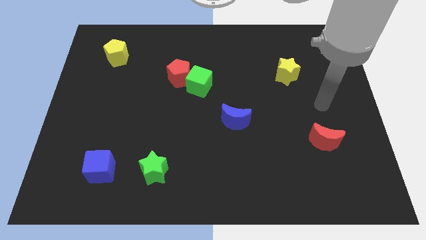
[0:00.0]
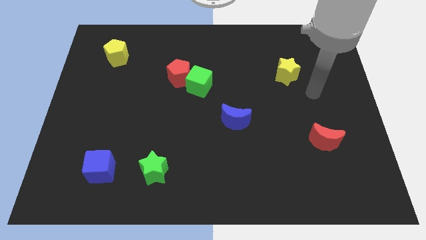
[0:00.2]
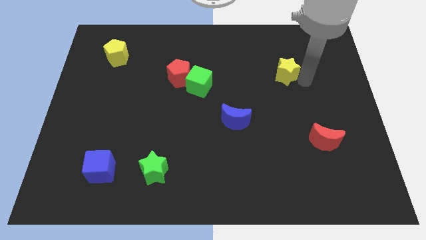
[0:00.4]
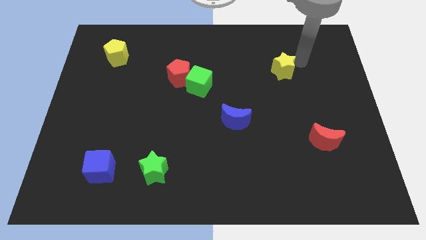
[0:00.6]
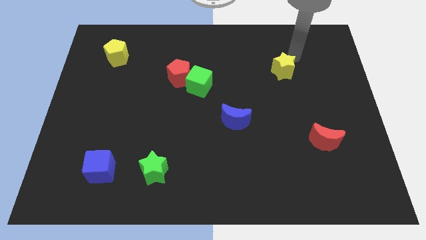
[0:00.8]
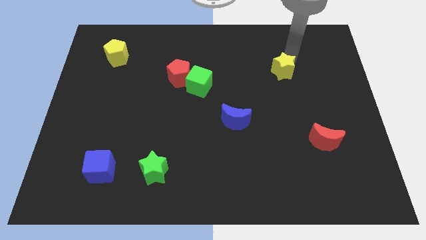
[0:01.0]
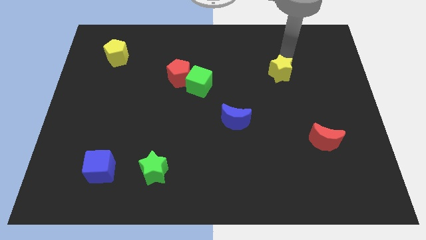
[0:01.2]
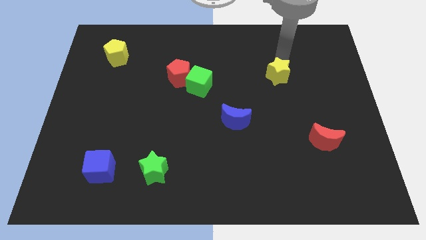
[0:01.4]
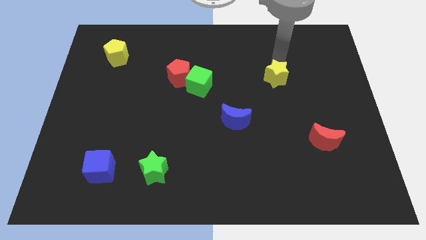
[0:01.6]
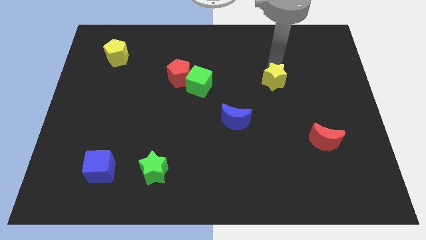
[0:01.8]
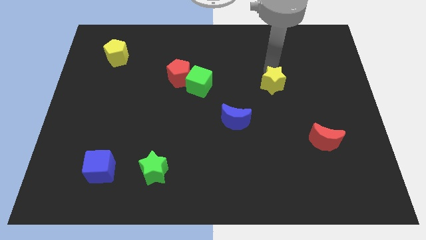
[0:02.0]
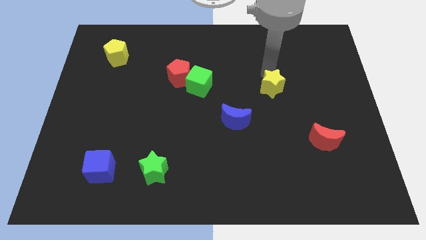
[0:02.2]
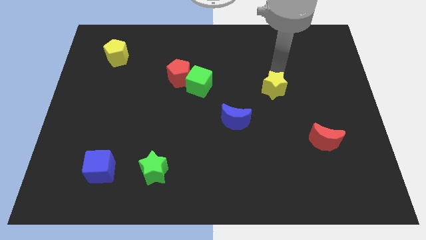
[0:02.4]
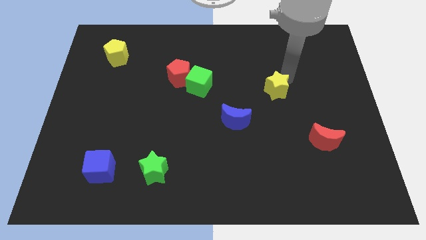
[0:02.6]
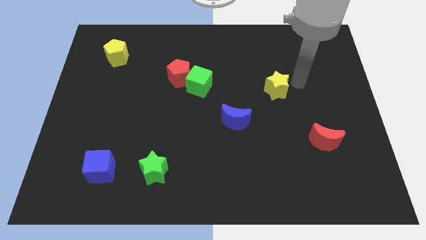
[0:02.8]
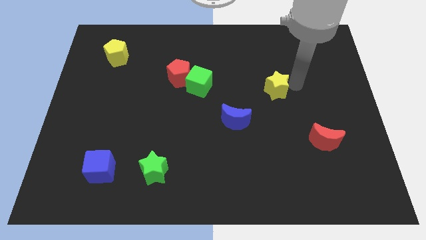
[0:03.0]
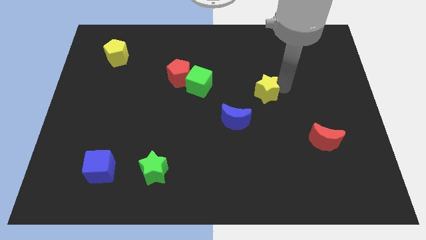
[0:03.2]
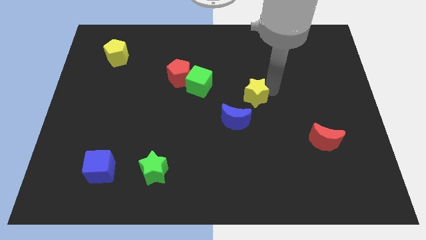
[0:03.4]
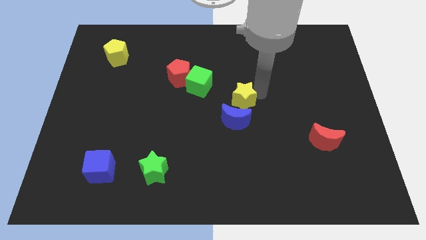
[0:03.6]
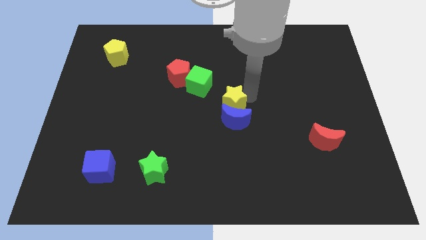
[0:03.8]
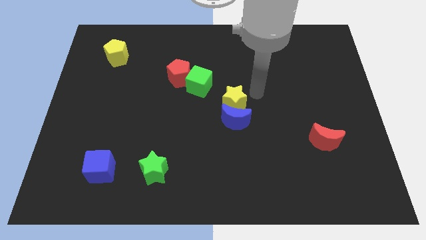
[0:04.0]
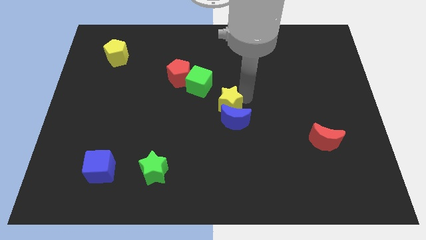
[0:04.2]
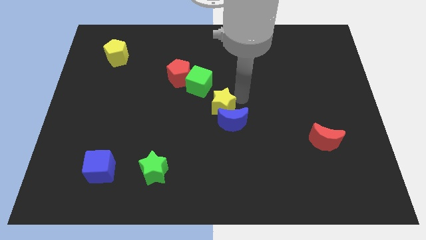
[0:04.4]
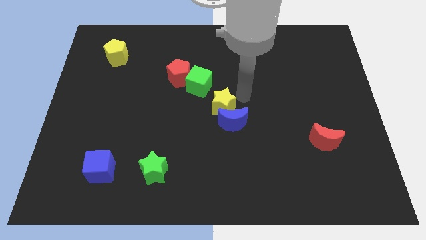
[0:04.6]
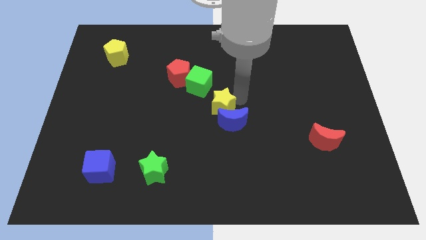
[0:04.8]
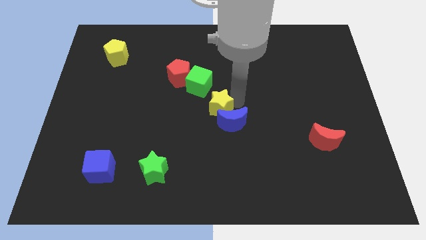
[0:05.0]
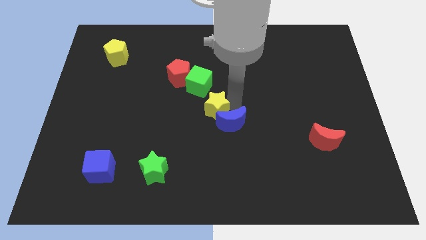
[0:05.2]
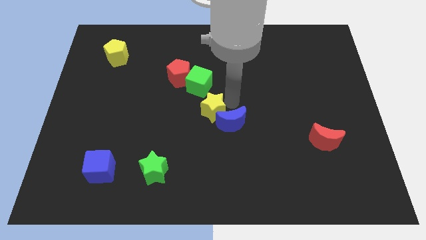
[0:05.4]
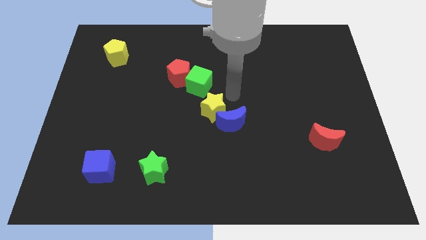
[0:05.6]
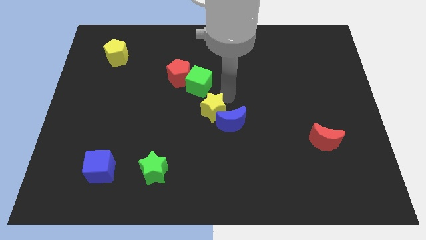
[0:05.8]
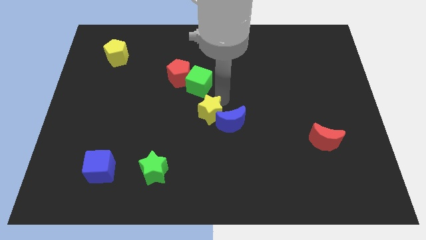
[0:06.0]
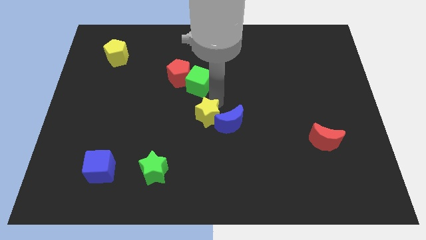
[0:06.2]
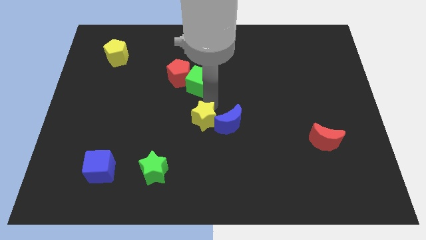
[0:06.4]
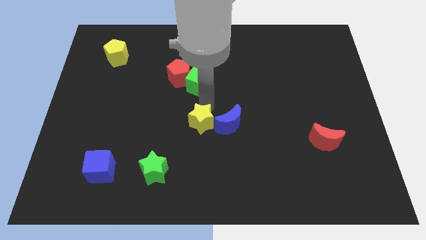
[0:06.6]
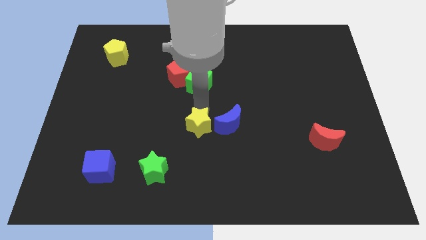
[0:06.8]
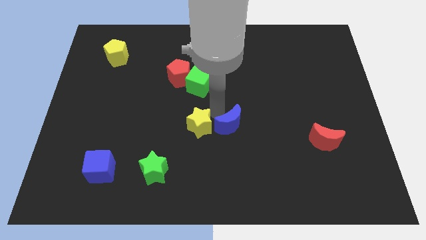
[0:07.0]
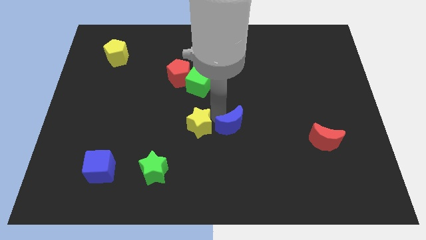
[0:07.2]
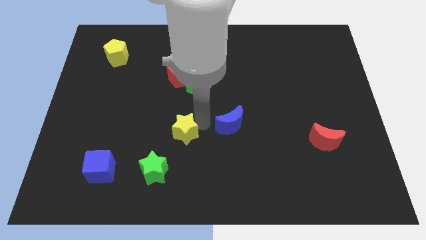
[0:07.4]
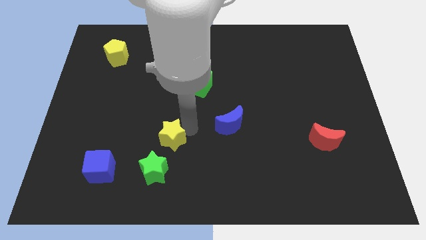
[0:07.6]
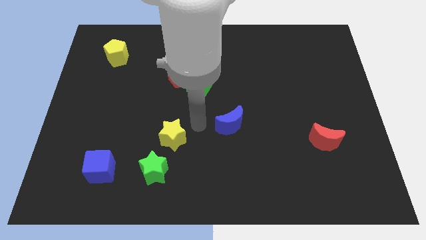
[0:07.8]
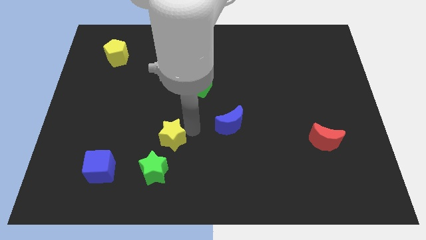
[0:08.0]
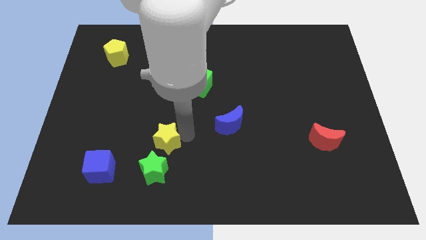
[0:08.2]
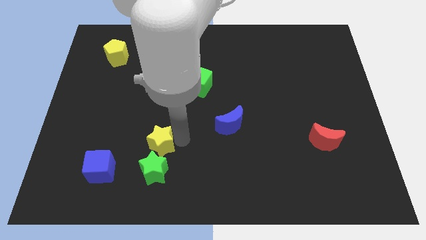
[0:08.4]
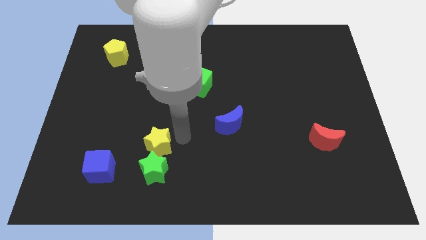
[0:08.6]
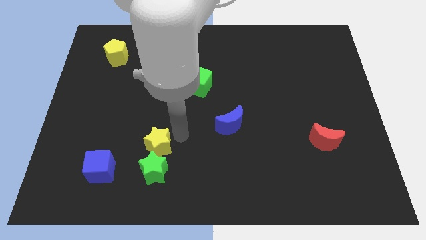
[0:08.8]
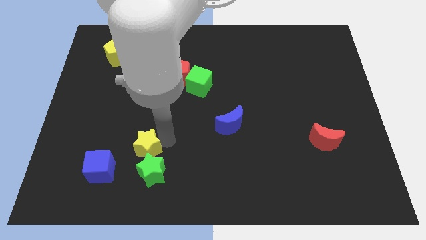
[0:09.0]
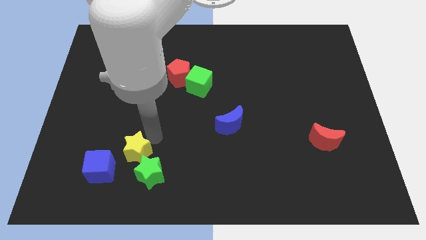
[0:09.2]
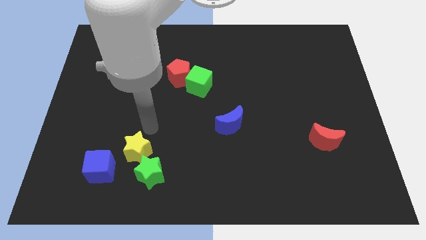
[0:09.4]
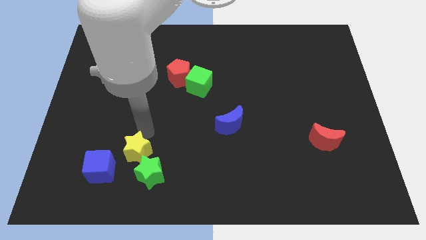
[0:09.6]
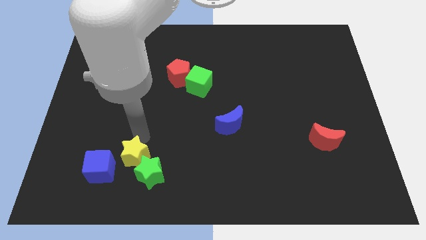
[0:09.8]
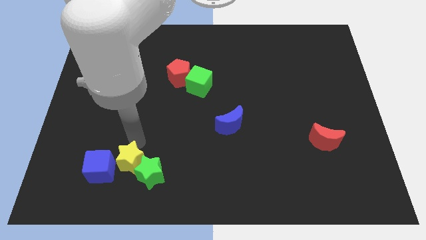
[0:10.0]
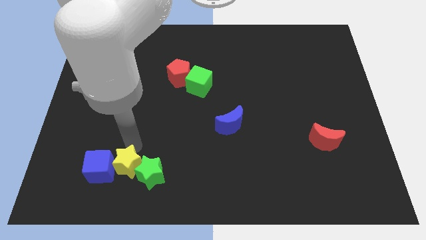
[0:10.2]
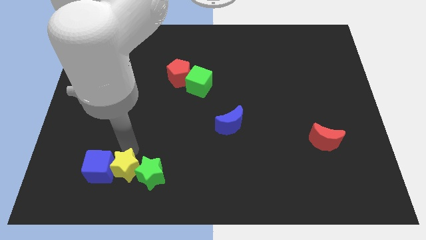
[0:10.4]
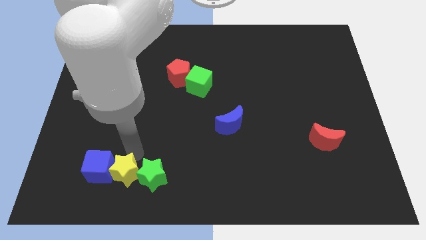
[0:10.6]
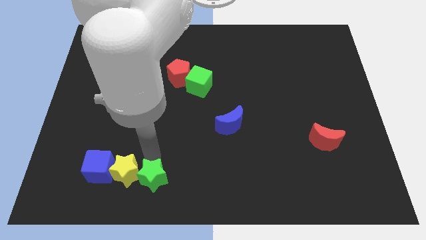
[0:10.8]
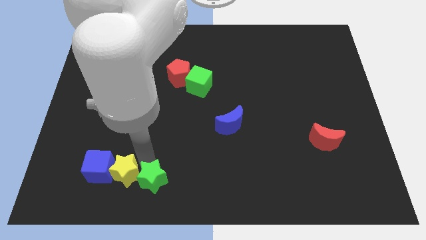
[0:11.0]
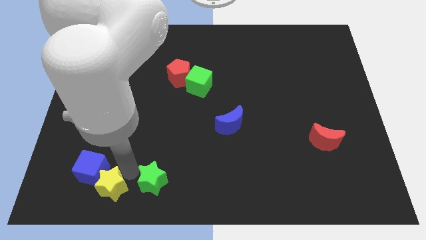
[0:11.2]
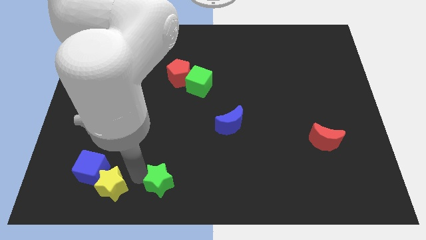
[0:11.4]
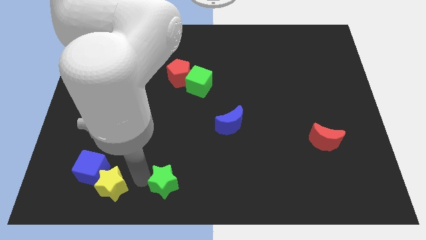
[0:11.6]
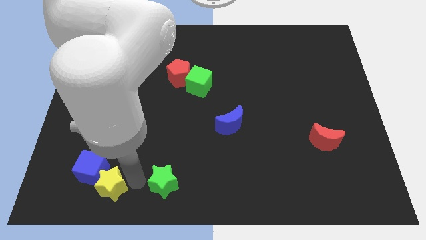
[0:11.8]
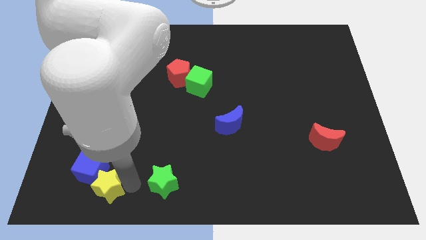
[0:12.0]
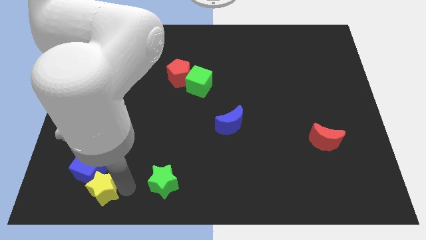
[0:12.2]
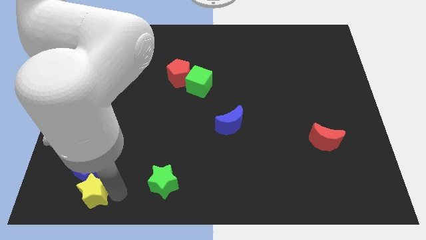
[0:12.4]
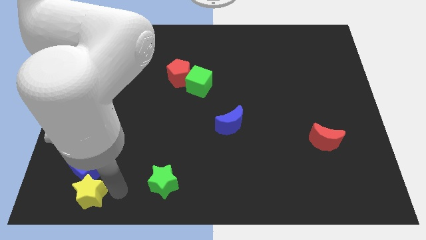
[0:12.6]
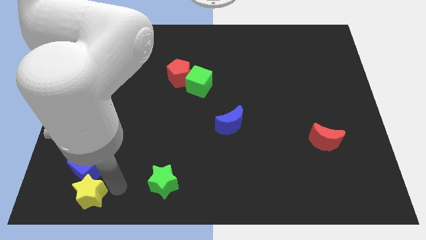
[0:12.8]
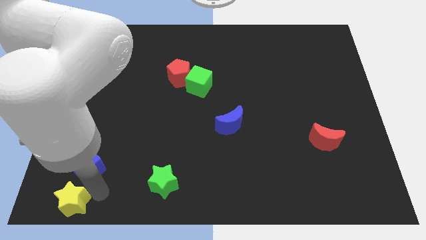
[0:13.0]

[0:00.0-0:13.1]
push the yellow star to the bottom left
